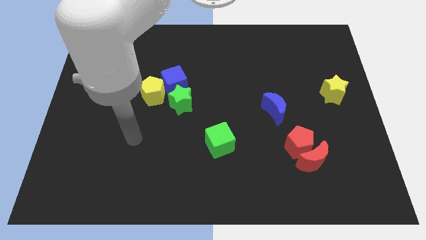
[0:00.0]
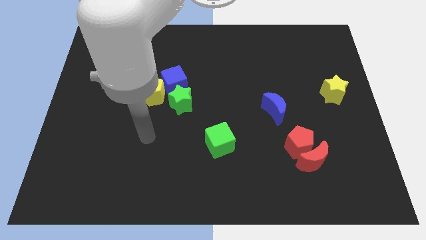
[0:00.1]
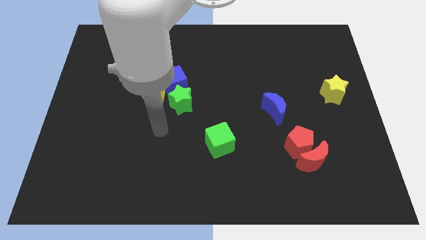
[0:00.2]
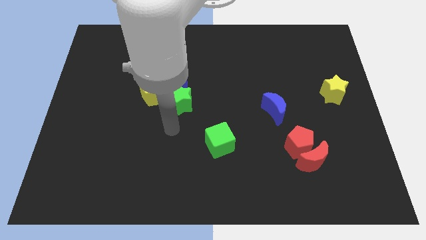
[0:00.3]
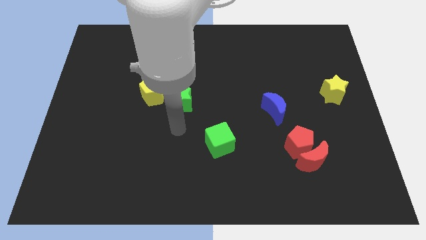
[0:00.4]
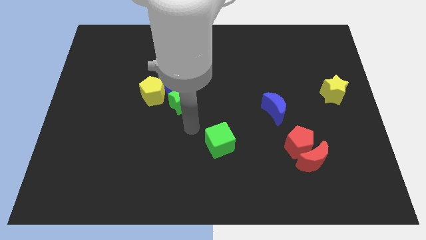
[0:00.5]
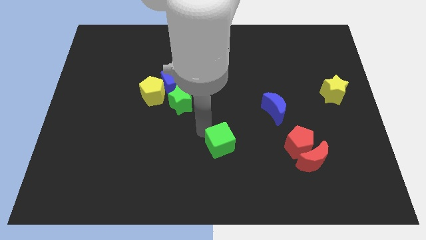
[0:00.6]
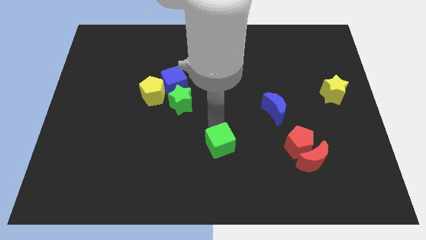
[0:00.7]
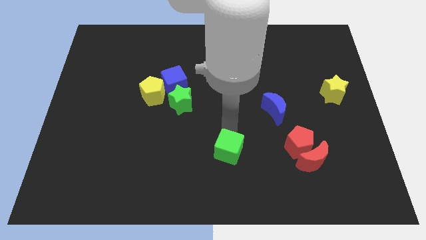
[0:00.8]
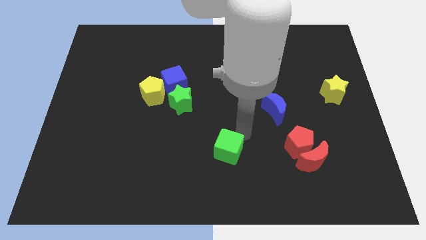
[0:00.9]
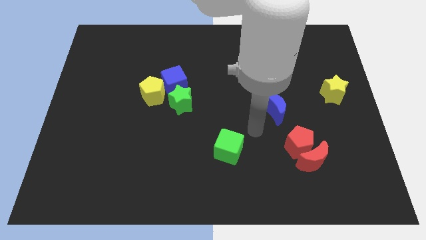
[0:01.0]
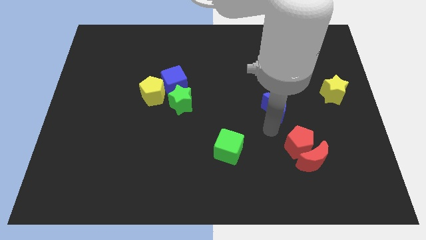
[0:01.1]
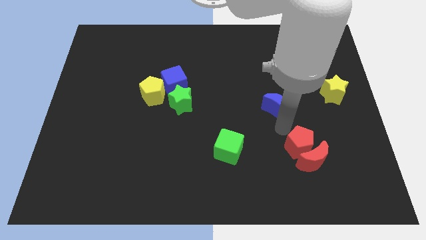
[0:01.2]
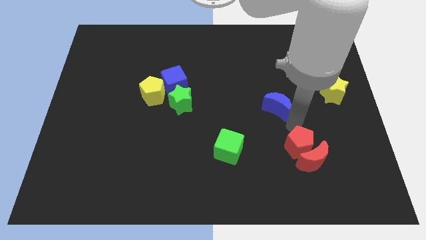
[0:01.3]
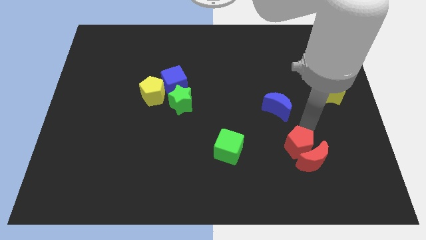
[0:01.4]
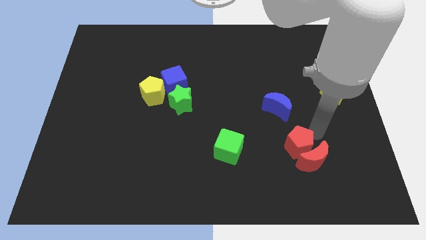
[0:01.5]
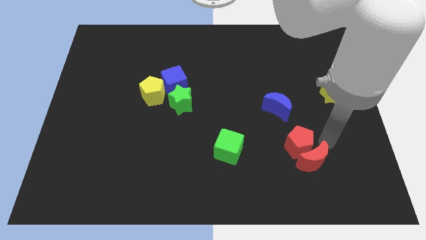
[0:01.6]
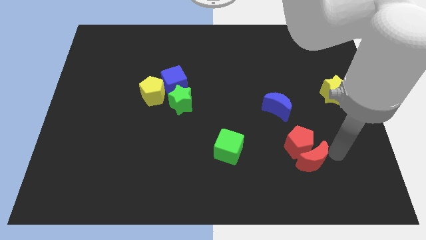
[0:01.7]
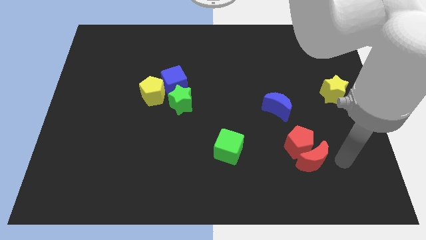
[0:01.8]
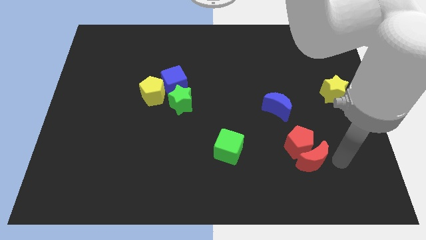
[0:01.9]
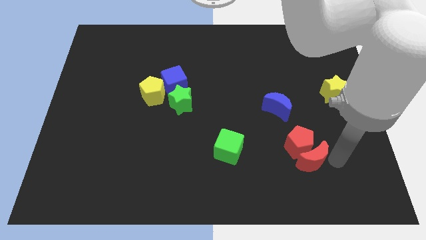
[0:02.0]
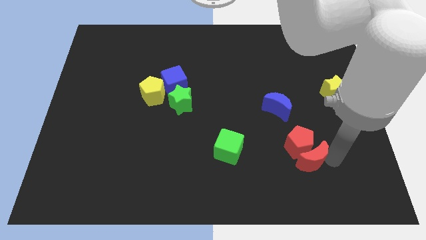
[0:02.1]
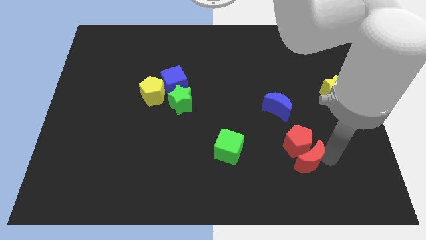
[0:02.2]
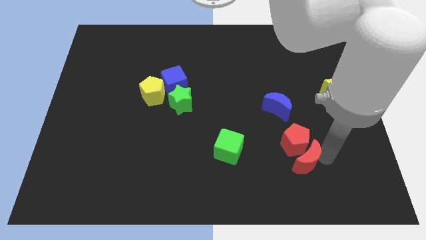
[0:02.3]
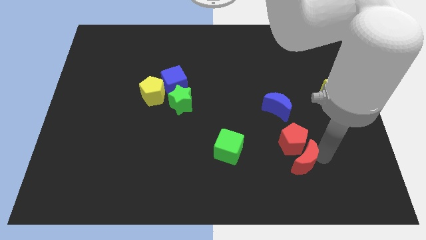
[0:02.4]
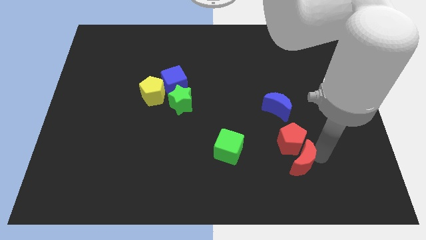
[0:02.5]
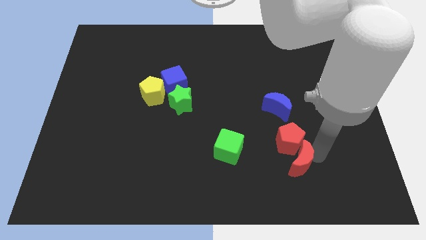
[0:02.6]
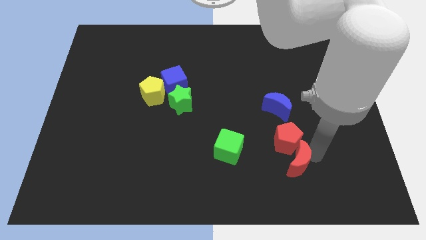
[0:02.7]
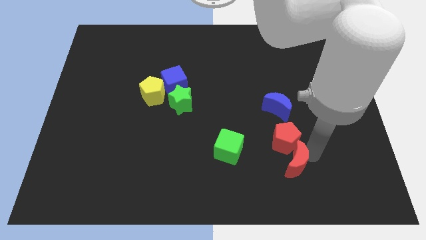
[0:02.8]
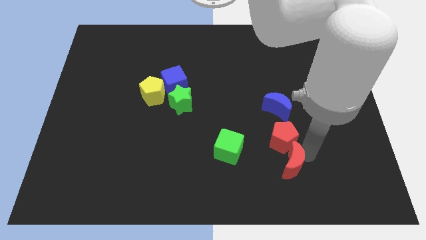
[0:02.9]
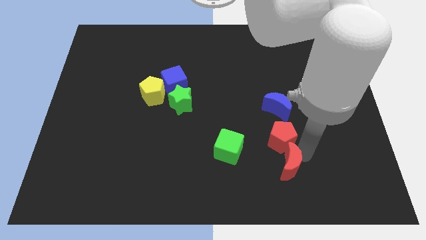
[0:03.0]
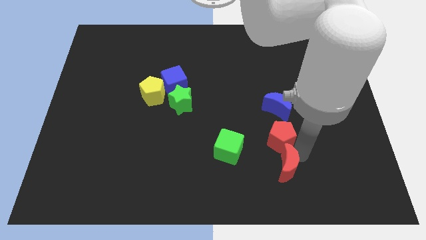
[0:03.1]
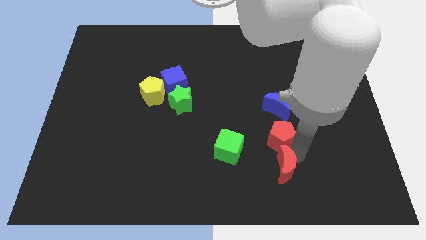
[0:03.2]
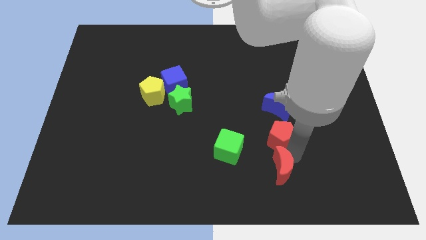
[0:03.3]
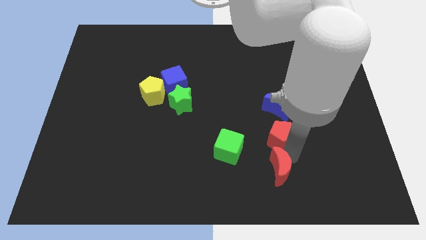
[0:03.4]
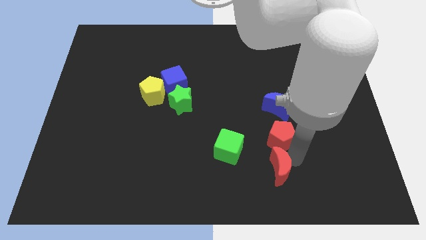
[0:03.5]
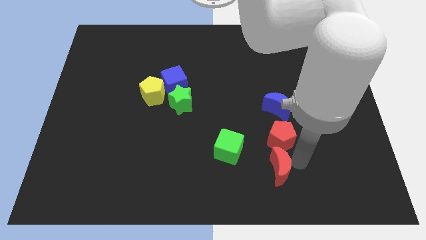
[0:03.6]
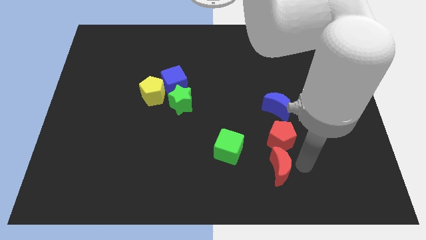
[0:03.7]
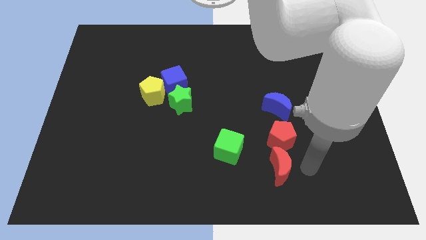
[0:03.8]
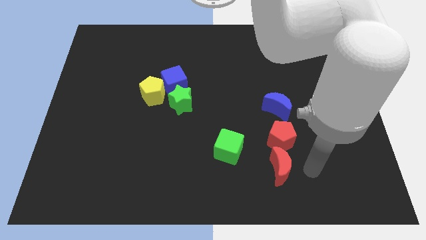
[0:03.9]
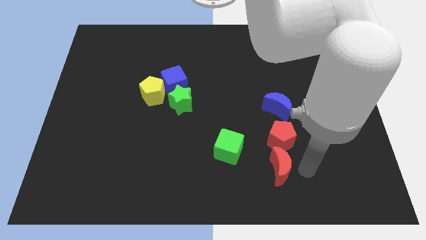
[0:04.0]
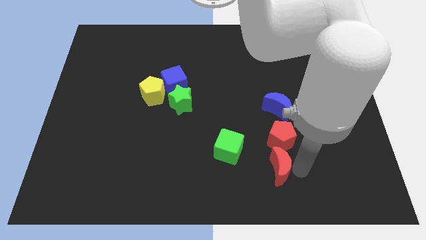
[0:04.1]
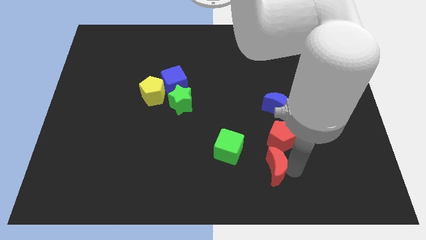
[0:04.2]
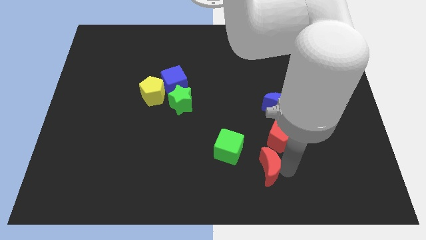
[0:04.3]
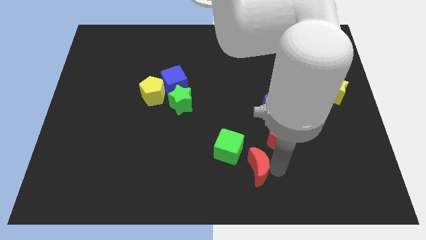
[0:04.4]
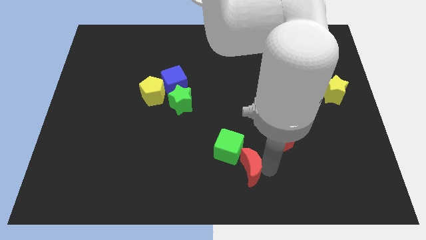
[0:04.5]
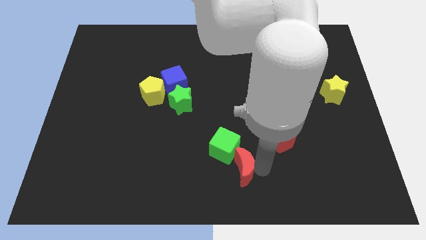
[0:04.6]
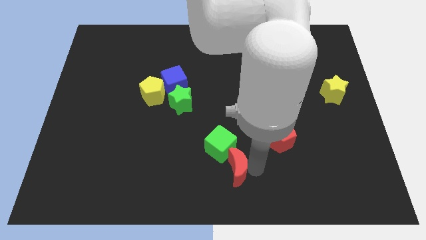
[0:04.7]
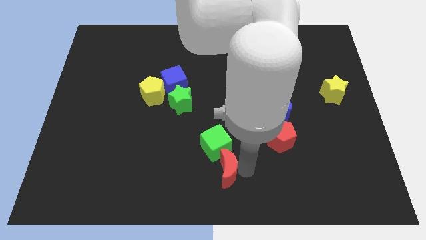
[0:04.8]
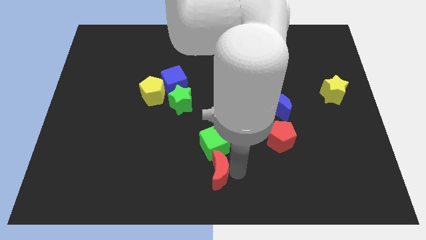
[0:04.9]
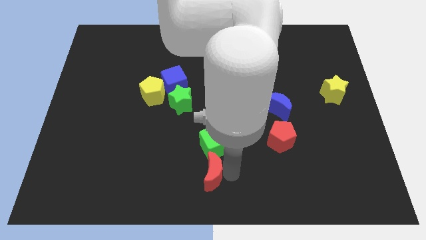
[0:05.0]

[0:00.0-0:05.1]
move the red moon left

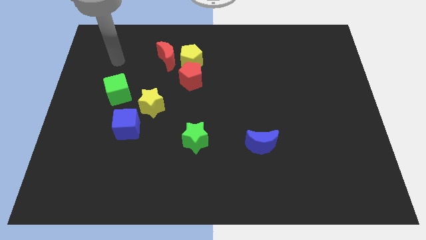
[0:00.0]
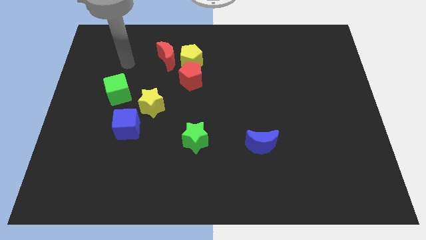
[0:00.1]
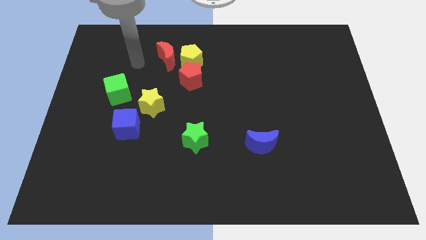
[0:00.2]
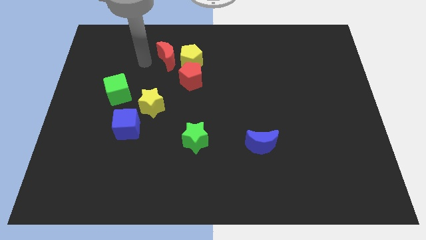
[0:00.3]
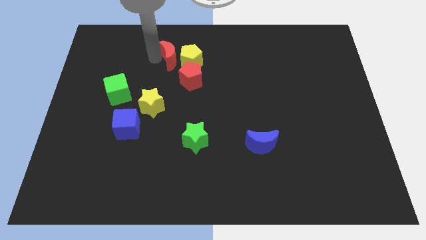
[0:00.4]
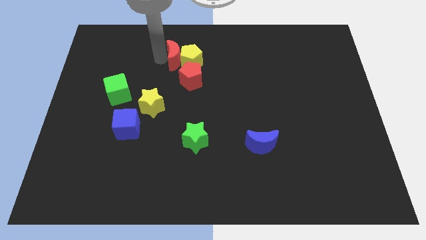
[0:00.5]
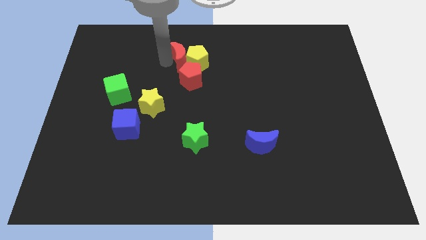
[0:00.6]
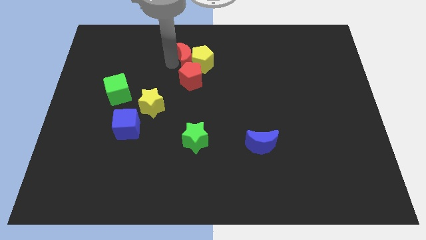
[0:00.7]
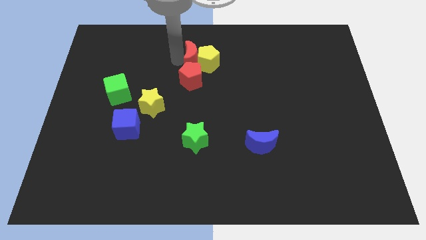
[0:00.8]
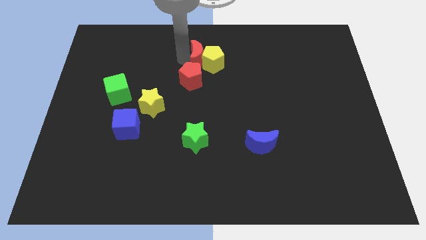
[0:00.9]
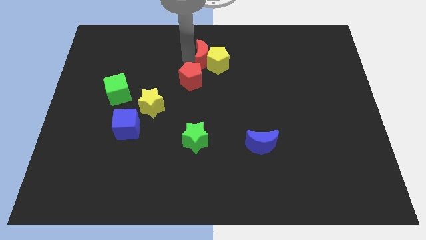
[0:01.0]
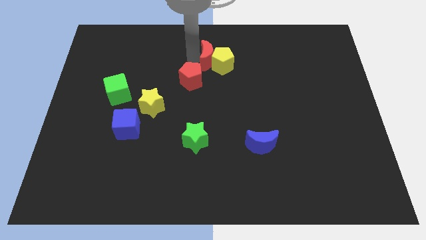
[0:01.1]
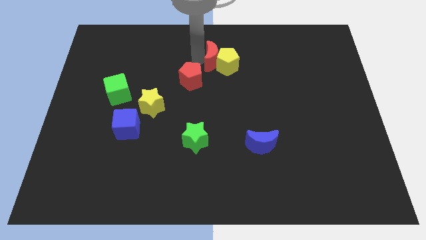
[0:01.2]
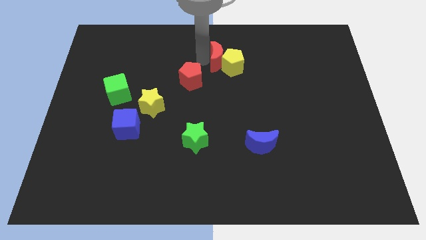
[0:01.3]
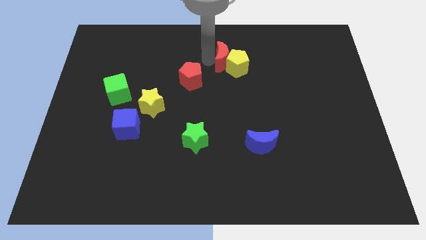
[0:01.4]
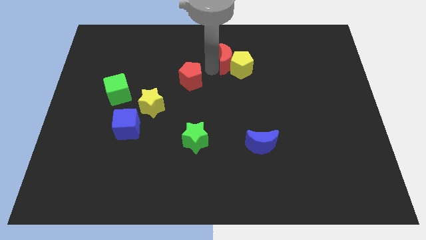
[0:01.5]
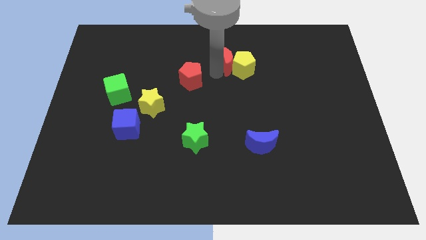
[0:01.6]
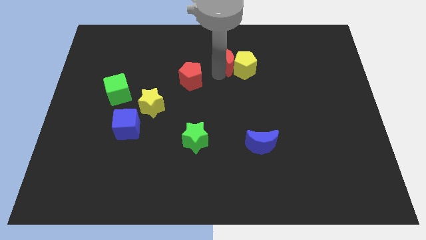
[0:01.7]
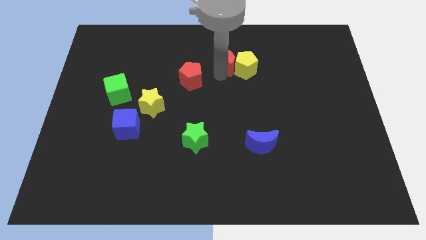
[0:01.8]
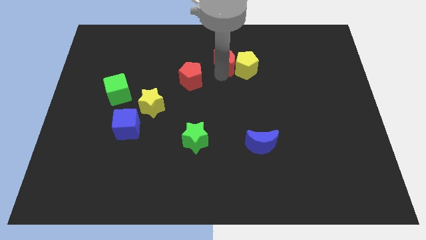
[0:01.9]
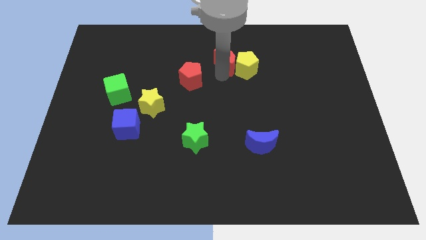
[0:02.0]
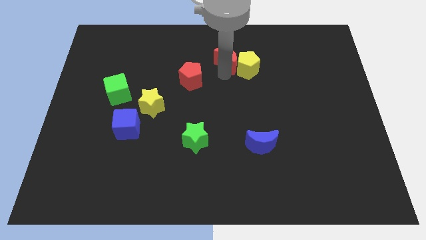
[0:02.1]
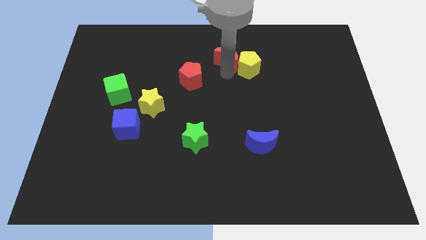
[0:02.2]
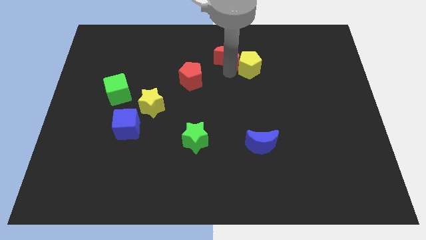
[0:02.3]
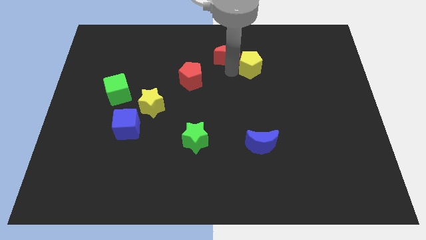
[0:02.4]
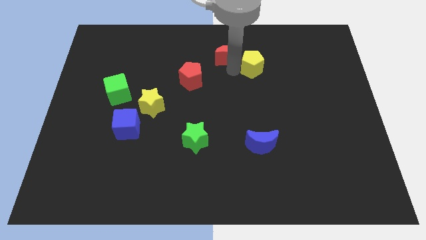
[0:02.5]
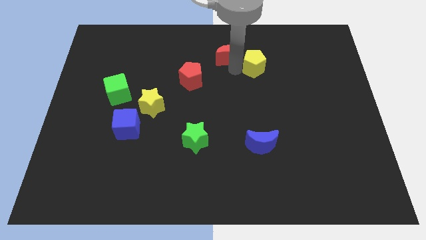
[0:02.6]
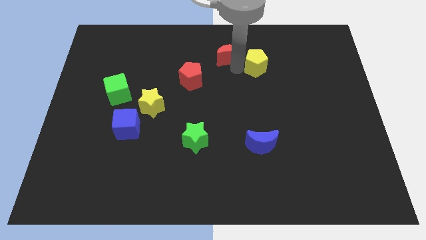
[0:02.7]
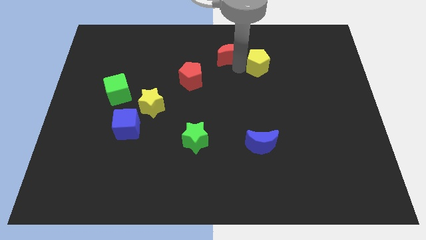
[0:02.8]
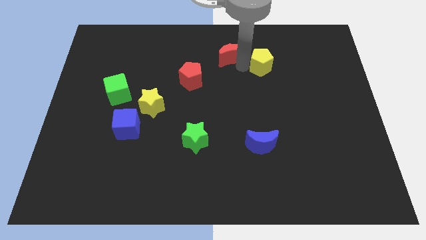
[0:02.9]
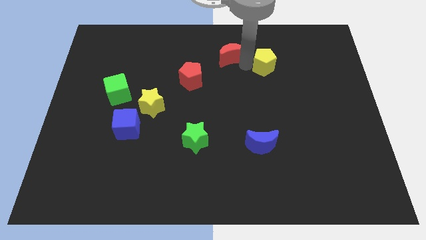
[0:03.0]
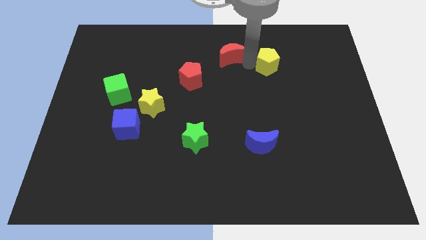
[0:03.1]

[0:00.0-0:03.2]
move the yellow pentagon to the right
